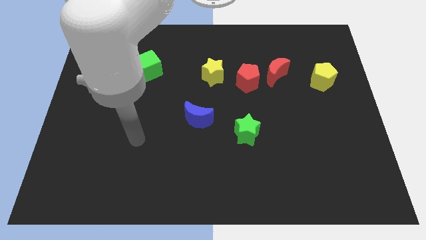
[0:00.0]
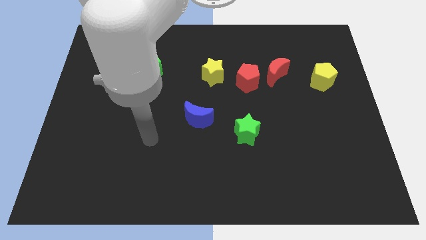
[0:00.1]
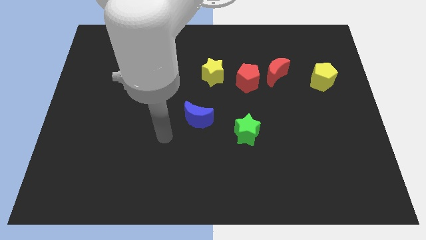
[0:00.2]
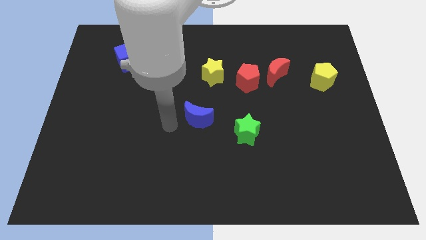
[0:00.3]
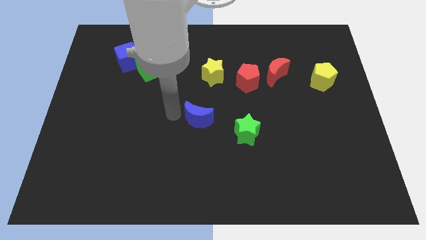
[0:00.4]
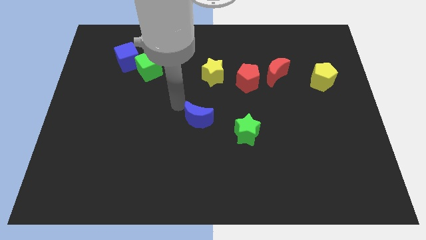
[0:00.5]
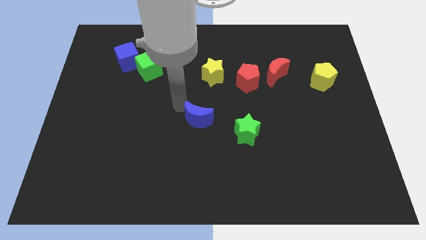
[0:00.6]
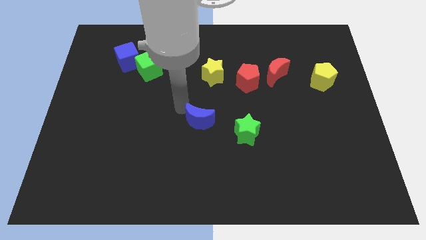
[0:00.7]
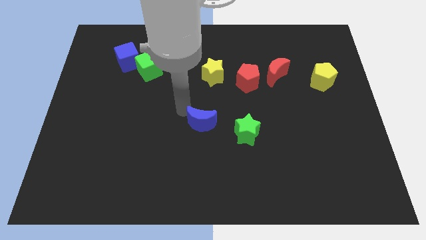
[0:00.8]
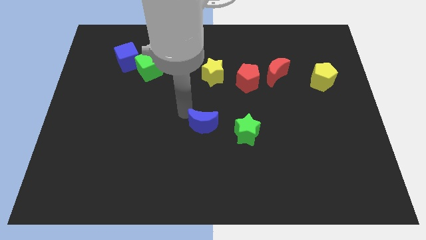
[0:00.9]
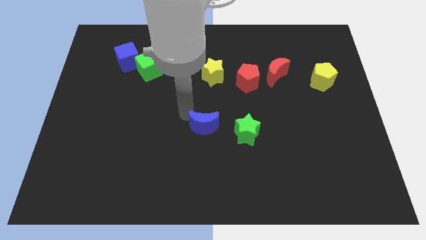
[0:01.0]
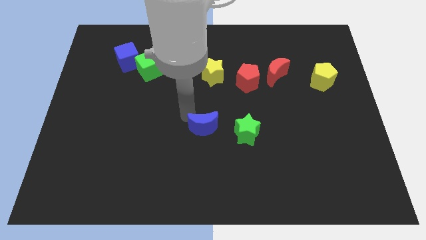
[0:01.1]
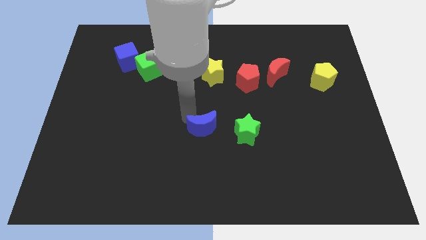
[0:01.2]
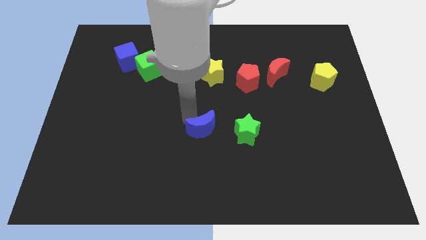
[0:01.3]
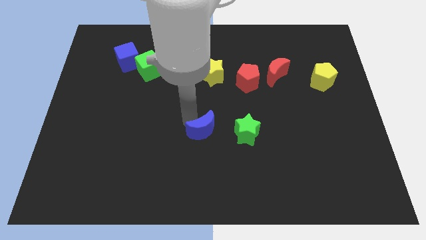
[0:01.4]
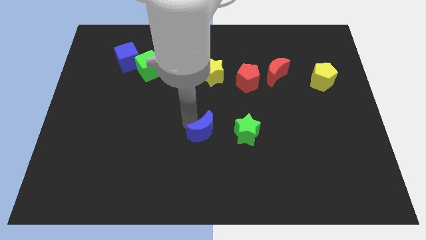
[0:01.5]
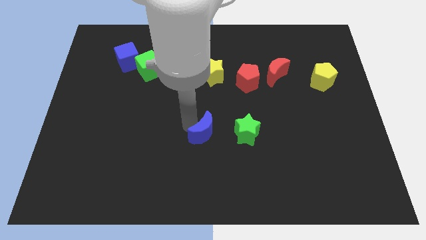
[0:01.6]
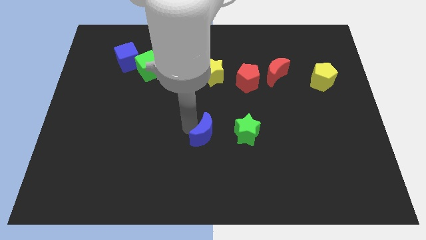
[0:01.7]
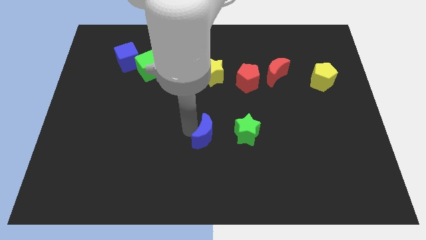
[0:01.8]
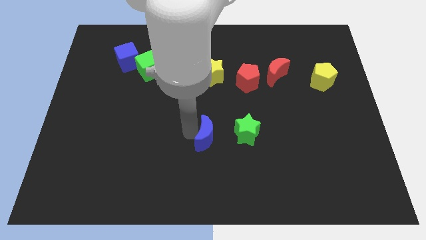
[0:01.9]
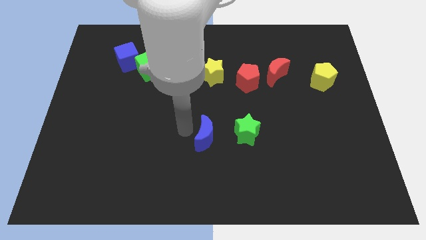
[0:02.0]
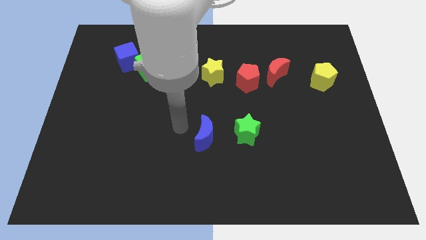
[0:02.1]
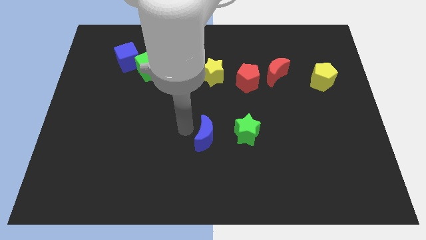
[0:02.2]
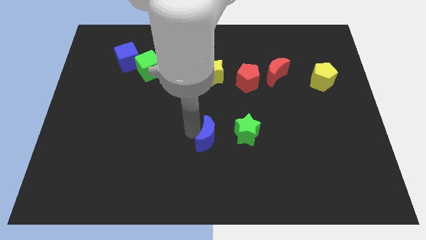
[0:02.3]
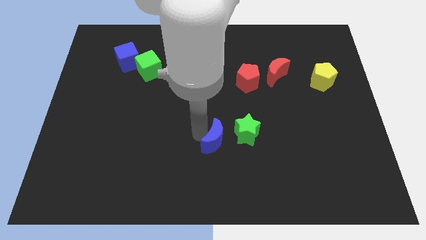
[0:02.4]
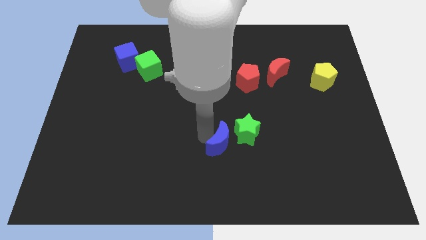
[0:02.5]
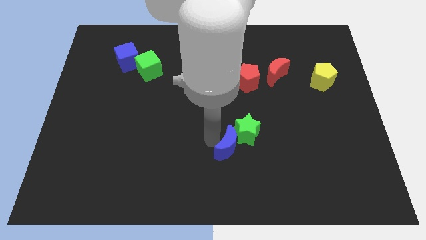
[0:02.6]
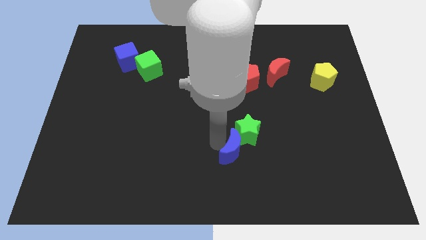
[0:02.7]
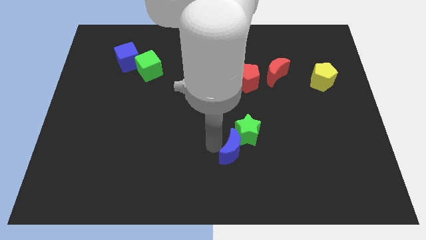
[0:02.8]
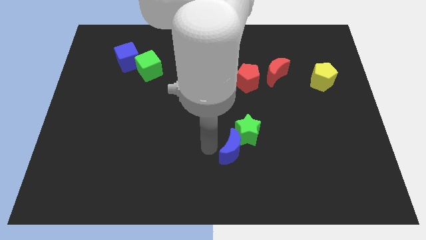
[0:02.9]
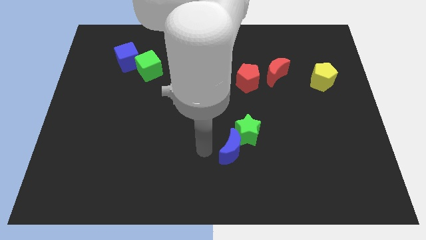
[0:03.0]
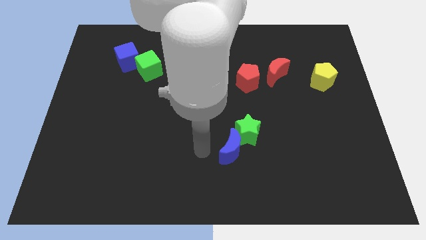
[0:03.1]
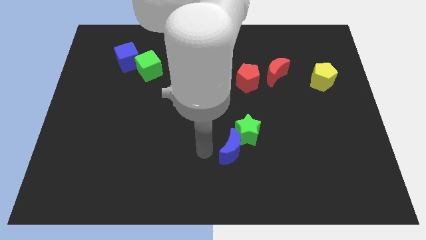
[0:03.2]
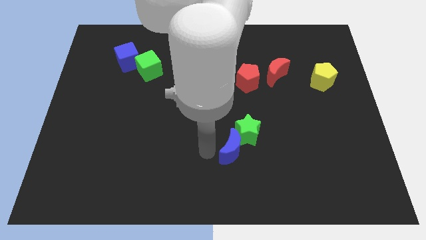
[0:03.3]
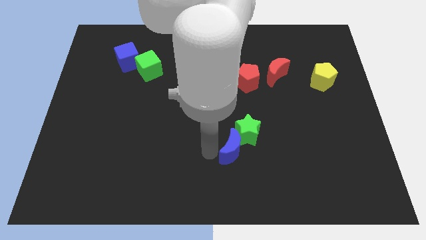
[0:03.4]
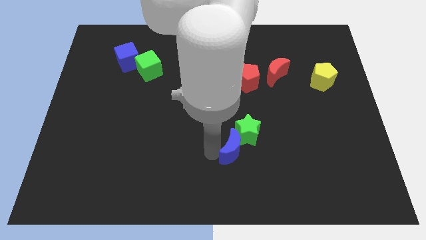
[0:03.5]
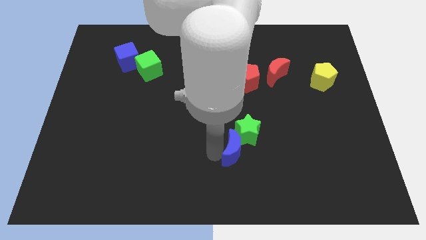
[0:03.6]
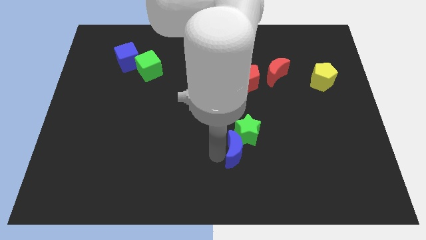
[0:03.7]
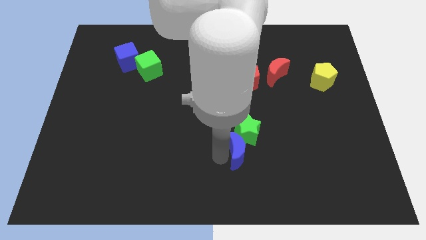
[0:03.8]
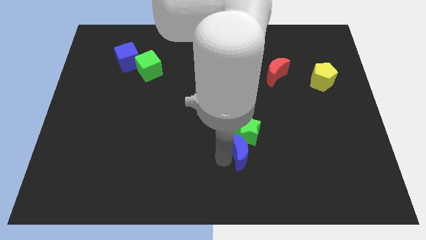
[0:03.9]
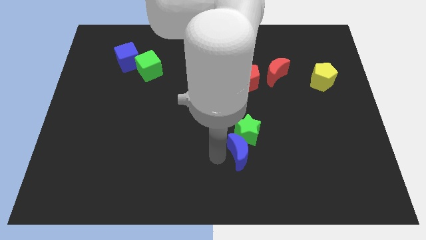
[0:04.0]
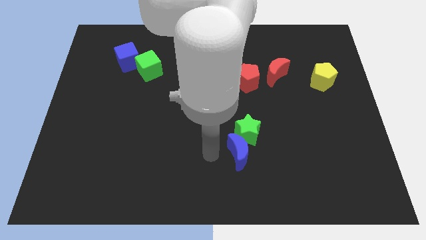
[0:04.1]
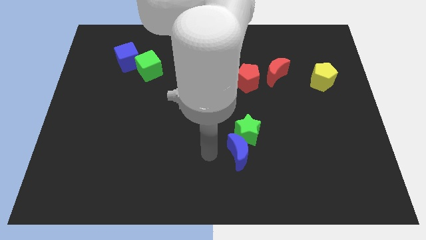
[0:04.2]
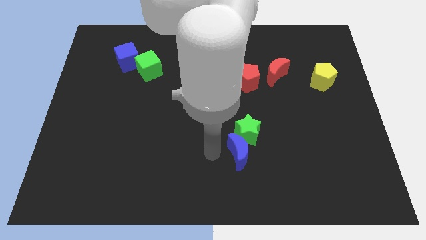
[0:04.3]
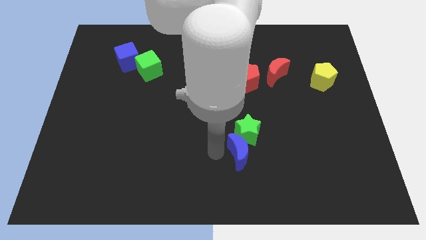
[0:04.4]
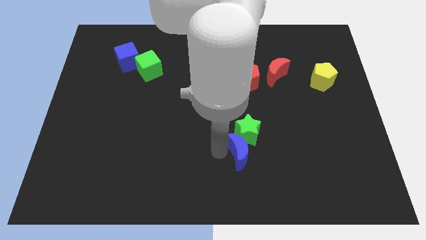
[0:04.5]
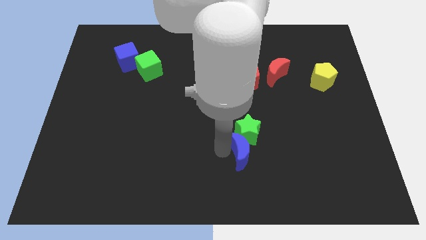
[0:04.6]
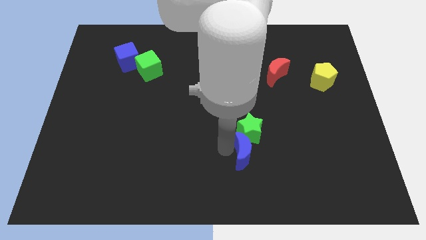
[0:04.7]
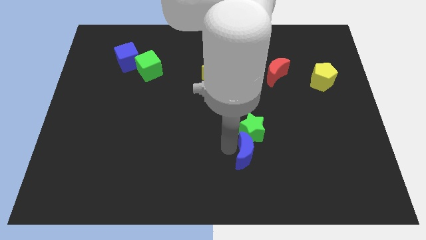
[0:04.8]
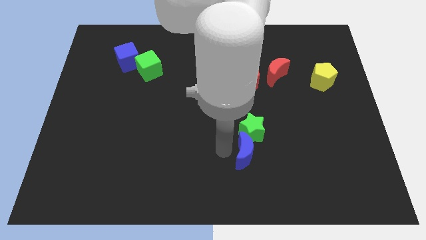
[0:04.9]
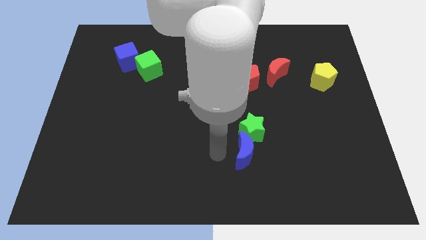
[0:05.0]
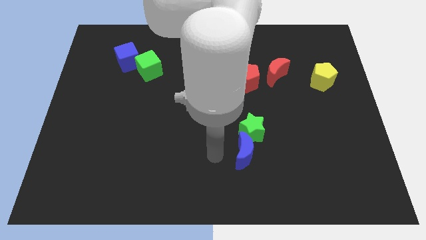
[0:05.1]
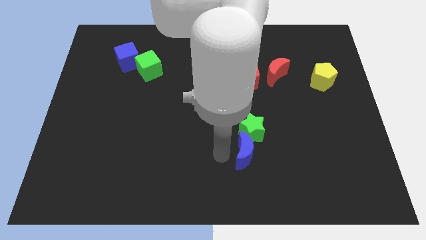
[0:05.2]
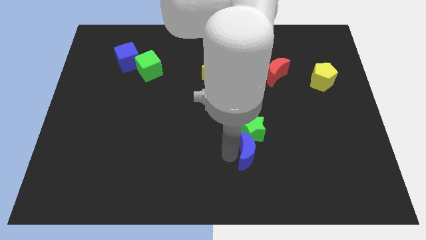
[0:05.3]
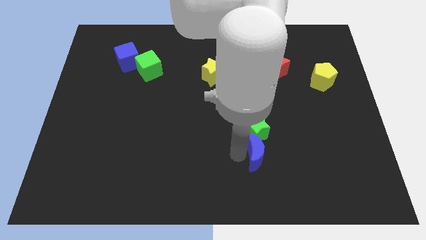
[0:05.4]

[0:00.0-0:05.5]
push the blue moon to the bottom right side of the green star

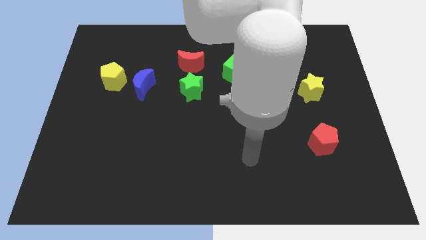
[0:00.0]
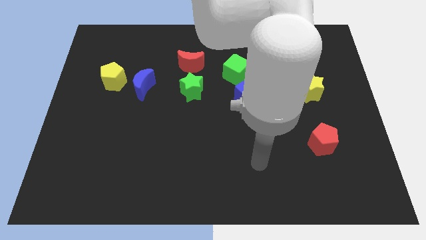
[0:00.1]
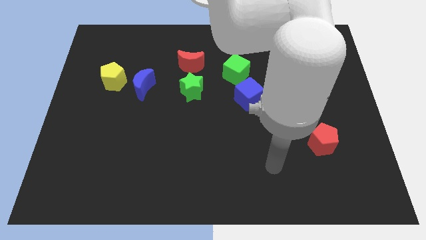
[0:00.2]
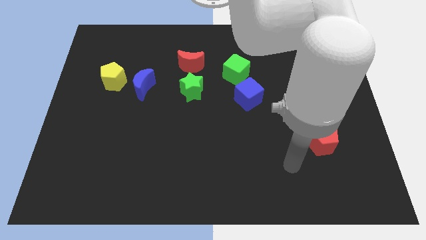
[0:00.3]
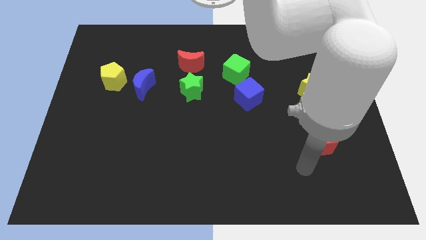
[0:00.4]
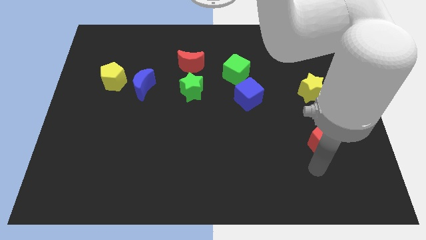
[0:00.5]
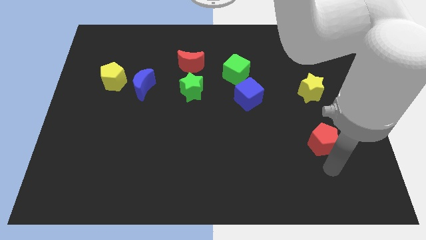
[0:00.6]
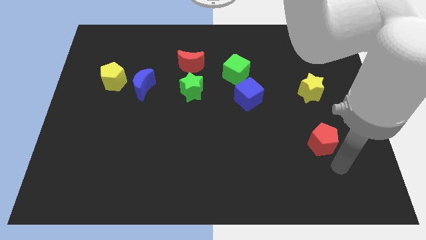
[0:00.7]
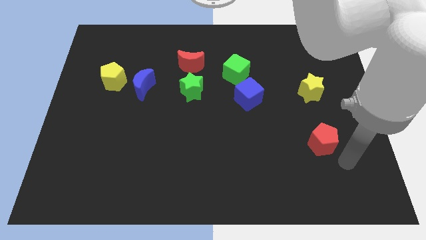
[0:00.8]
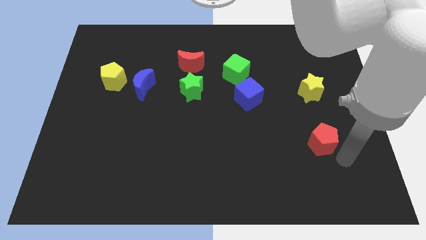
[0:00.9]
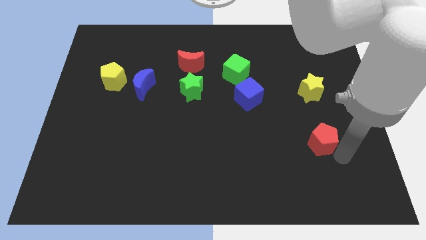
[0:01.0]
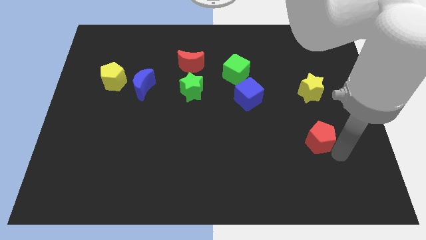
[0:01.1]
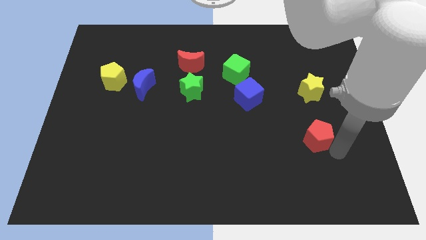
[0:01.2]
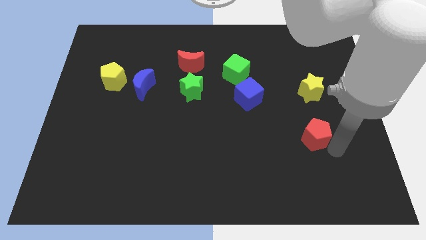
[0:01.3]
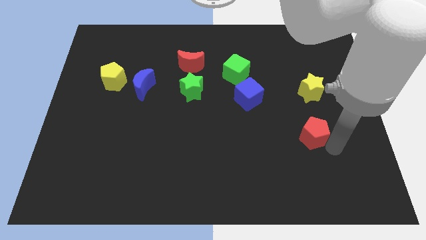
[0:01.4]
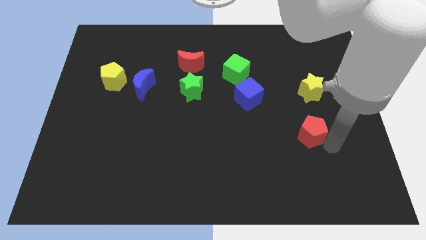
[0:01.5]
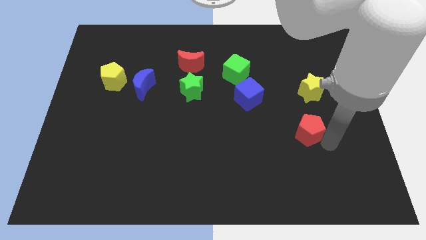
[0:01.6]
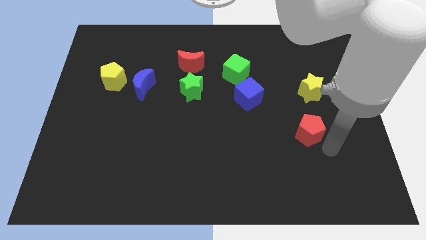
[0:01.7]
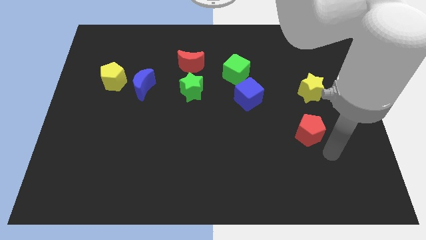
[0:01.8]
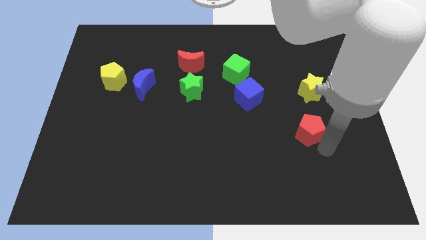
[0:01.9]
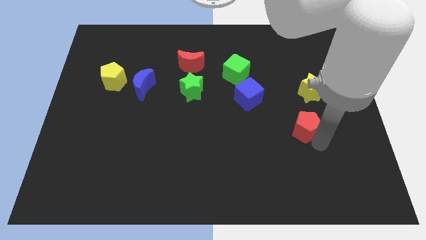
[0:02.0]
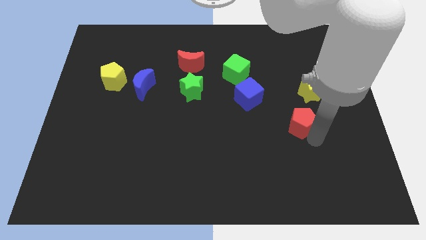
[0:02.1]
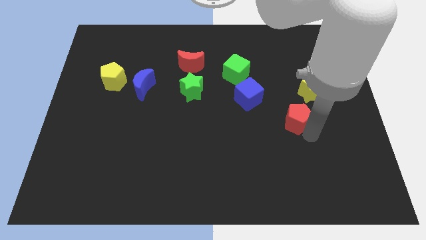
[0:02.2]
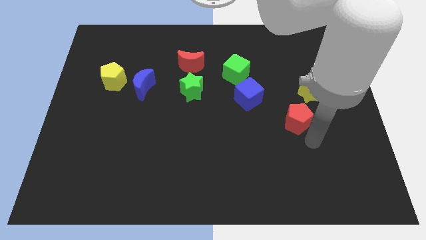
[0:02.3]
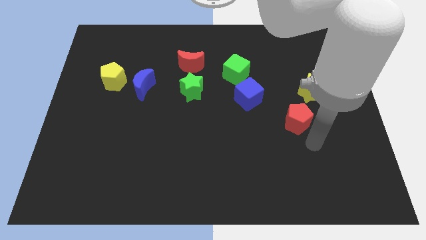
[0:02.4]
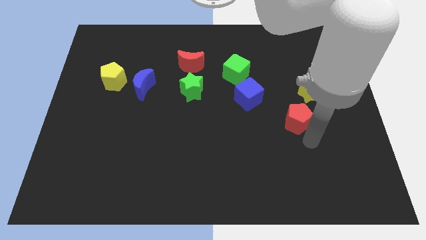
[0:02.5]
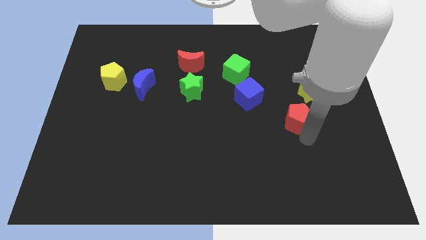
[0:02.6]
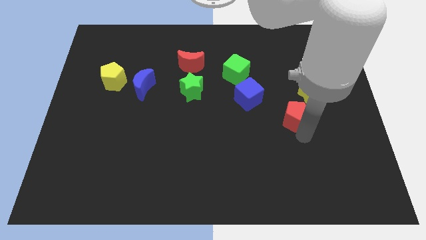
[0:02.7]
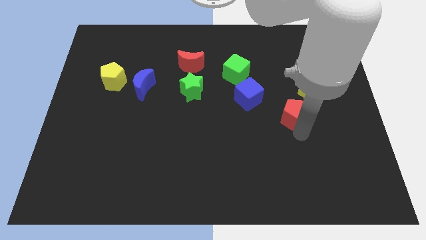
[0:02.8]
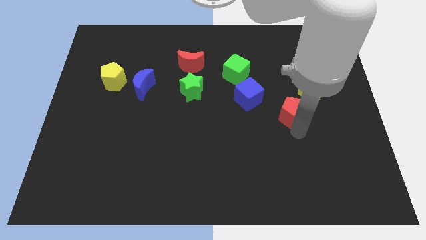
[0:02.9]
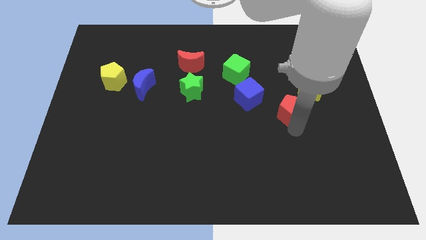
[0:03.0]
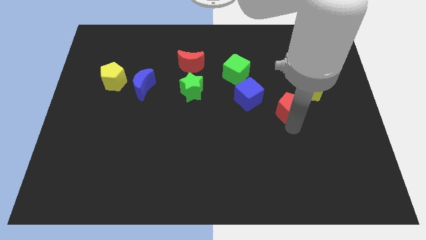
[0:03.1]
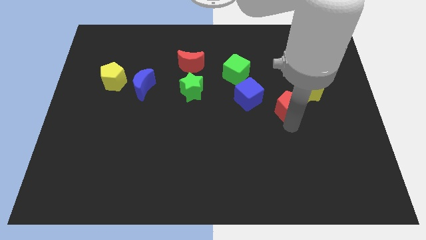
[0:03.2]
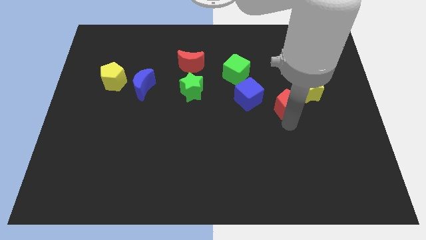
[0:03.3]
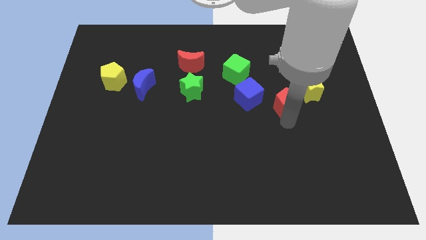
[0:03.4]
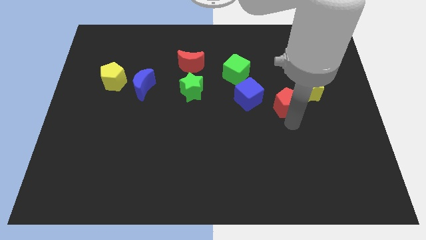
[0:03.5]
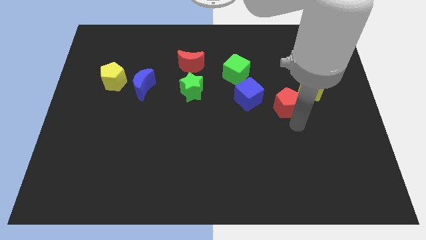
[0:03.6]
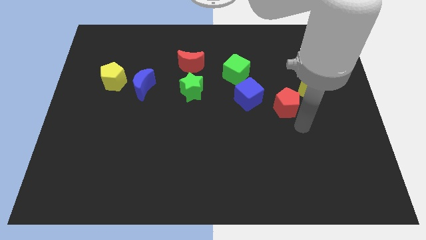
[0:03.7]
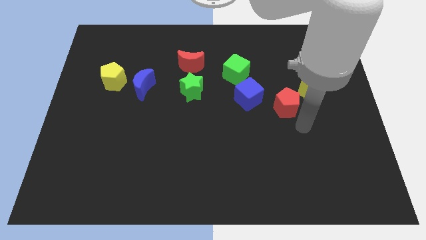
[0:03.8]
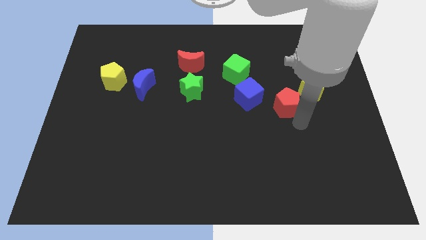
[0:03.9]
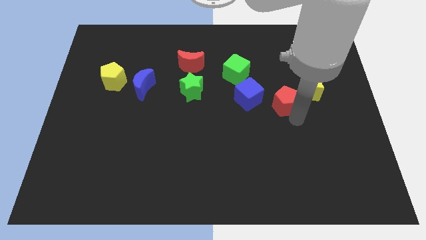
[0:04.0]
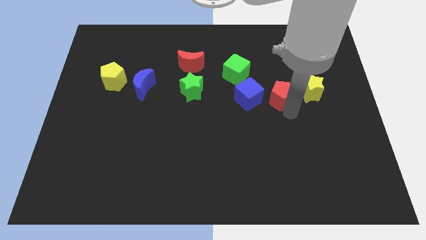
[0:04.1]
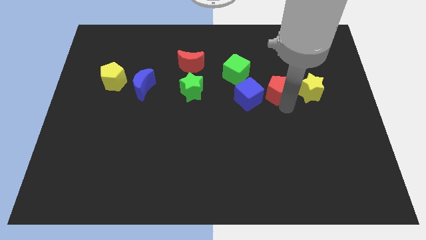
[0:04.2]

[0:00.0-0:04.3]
slide the red pentagon diagonally up and to the right of the blue cube
